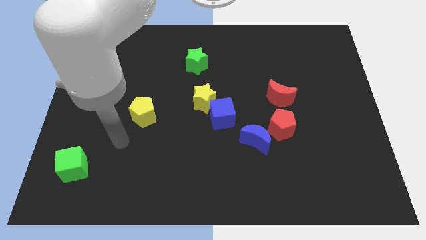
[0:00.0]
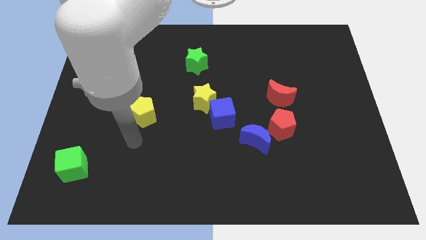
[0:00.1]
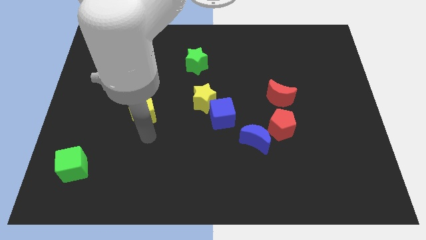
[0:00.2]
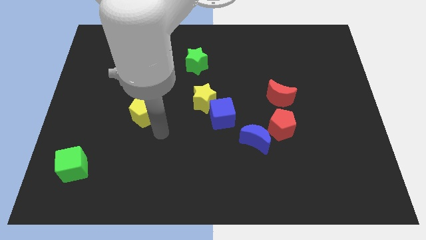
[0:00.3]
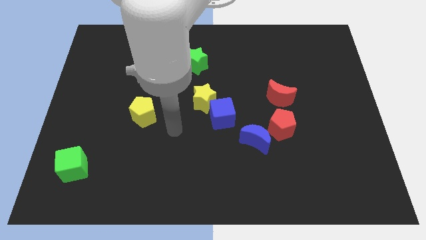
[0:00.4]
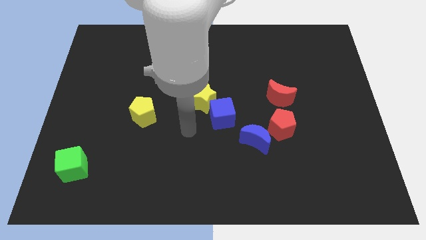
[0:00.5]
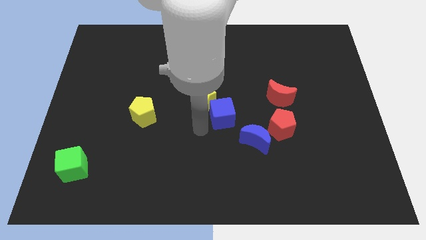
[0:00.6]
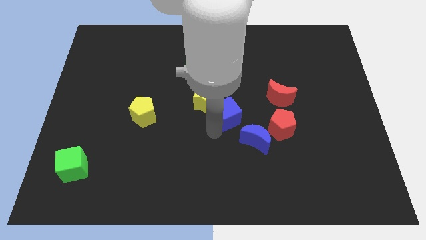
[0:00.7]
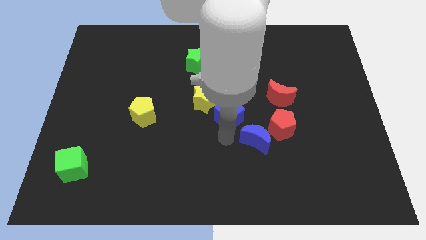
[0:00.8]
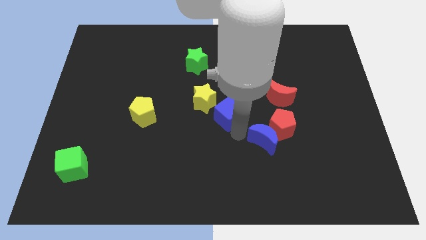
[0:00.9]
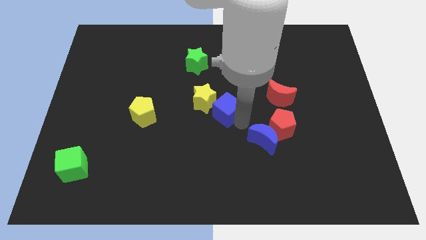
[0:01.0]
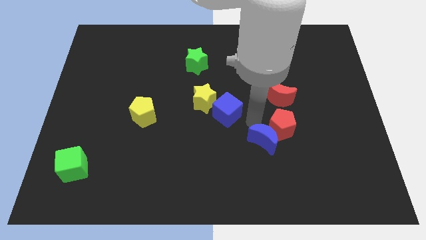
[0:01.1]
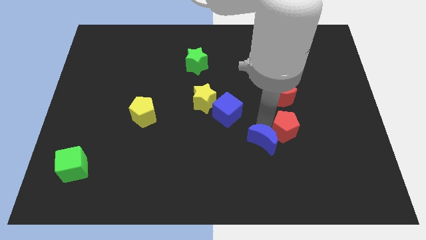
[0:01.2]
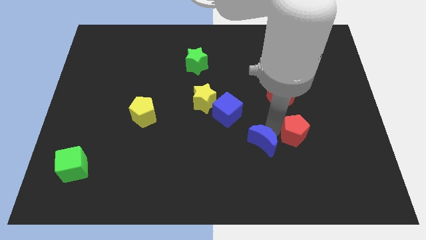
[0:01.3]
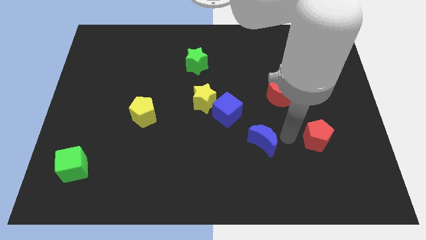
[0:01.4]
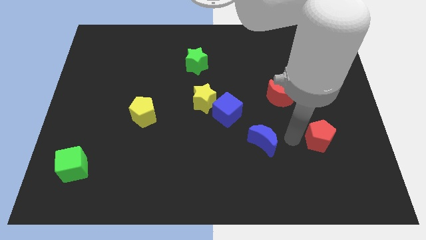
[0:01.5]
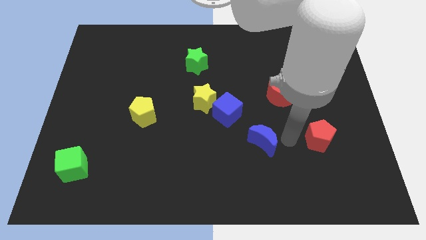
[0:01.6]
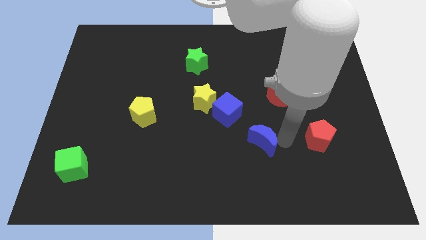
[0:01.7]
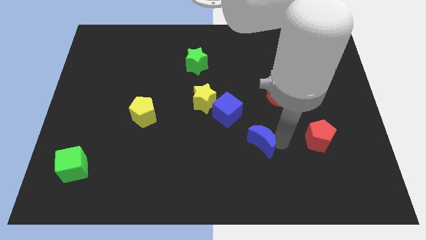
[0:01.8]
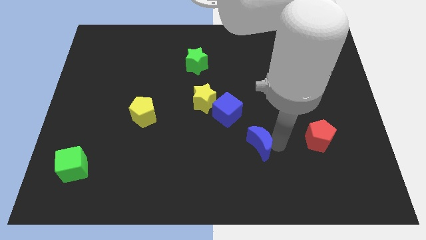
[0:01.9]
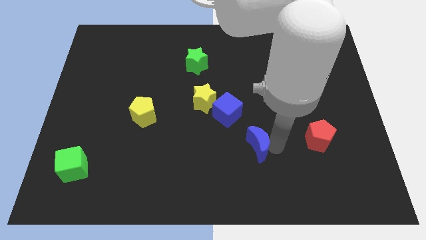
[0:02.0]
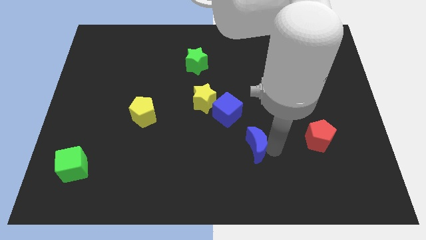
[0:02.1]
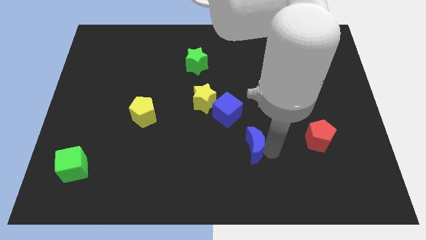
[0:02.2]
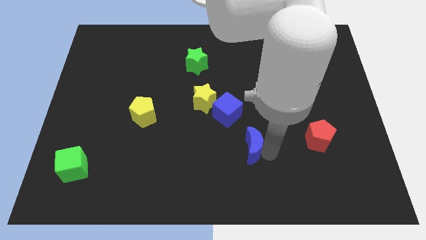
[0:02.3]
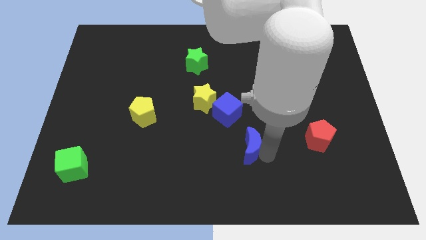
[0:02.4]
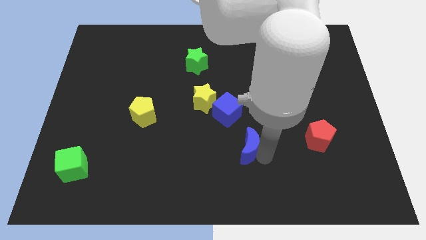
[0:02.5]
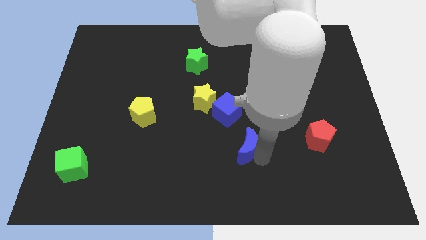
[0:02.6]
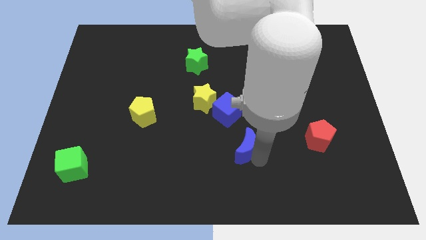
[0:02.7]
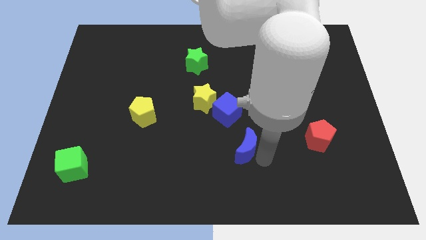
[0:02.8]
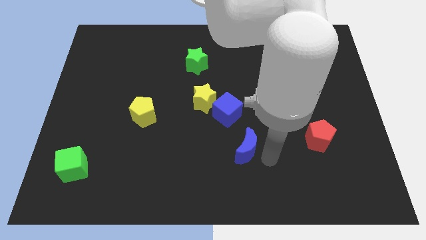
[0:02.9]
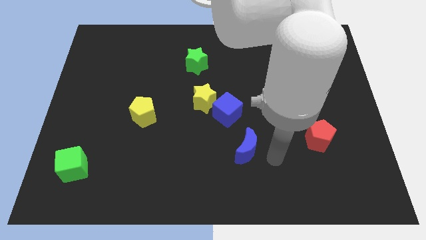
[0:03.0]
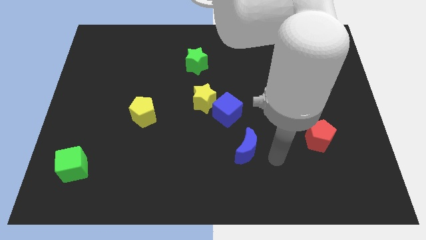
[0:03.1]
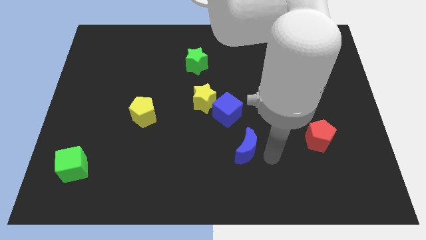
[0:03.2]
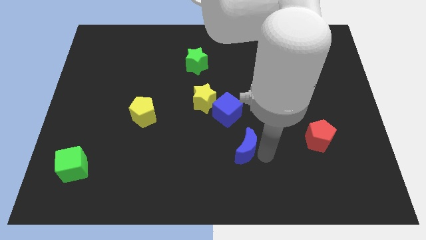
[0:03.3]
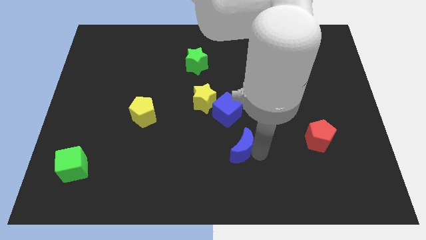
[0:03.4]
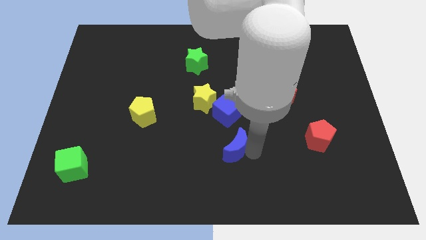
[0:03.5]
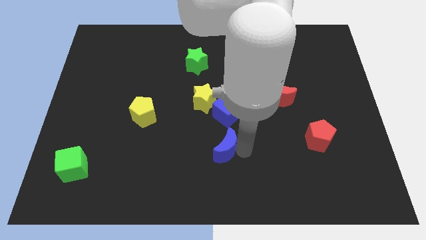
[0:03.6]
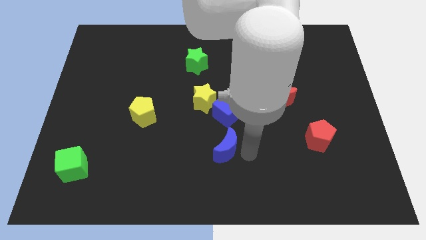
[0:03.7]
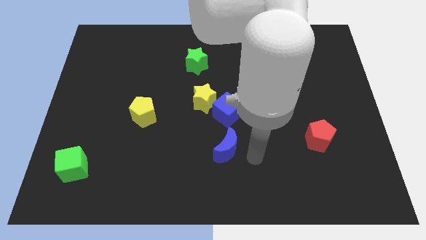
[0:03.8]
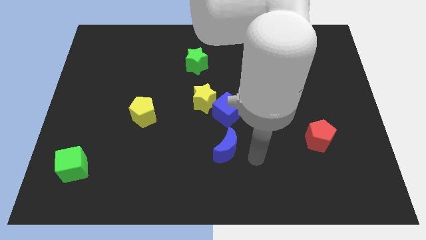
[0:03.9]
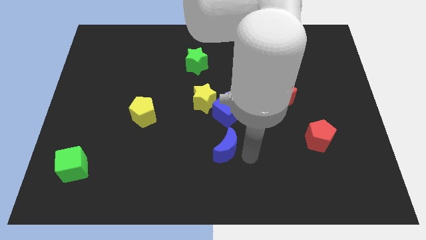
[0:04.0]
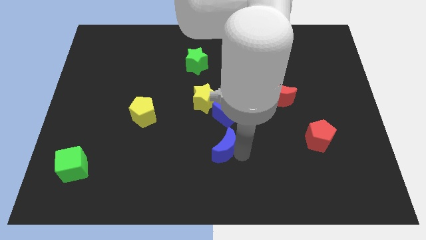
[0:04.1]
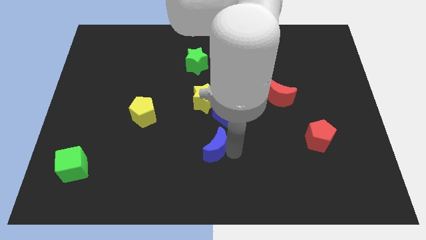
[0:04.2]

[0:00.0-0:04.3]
move the blue moon left a bit

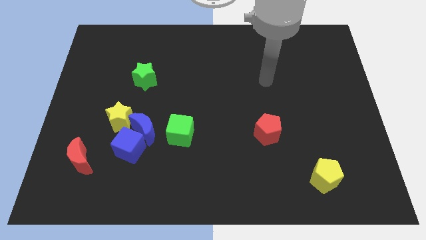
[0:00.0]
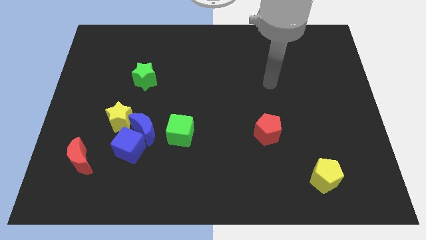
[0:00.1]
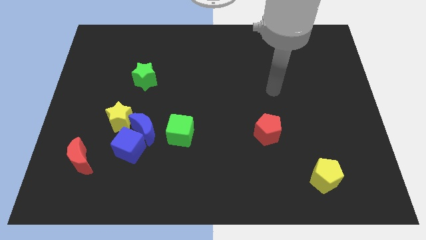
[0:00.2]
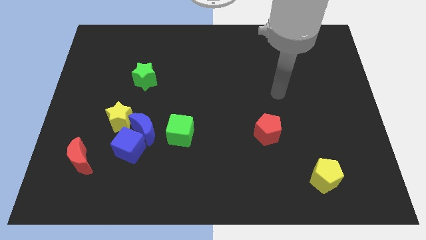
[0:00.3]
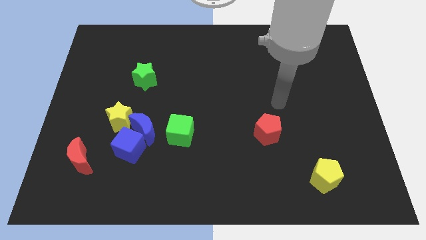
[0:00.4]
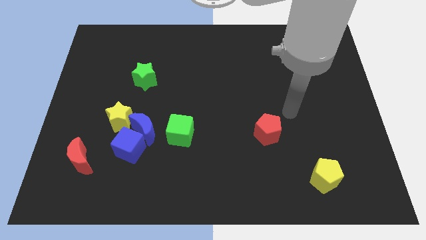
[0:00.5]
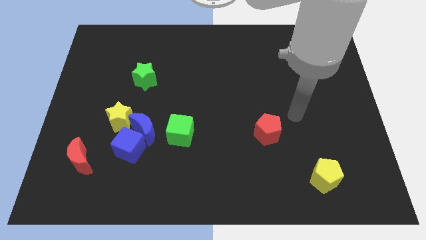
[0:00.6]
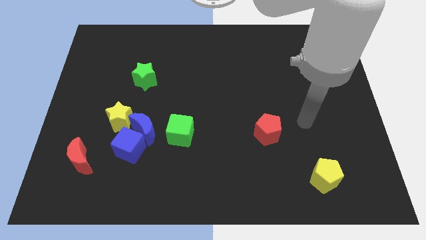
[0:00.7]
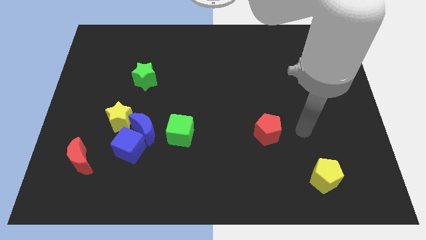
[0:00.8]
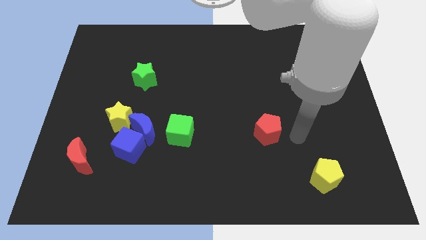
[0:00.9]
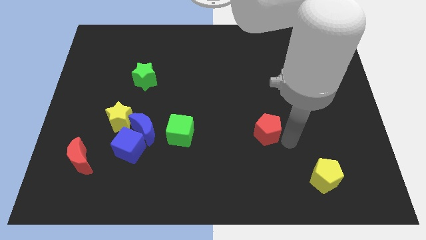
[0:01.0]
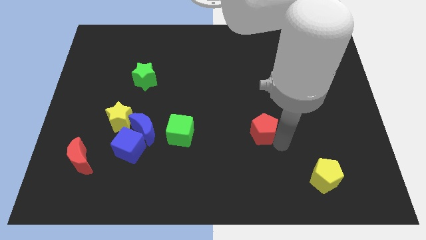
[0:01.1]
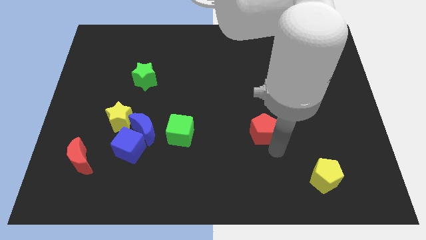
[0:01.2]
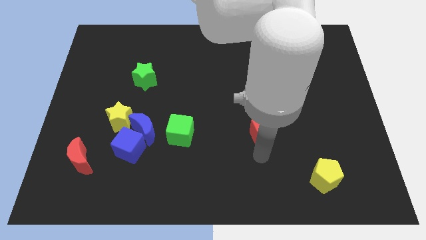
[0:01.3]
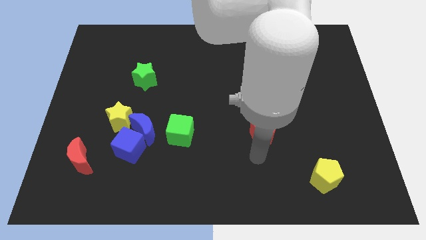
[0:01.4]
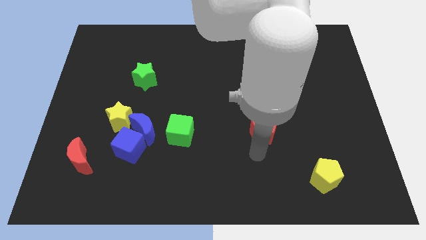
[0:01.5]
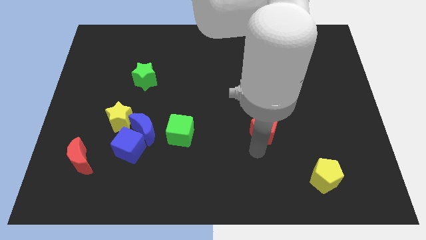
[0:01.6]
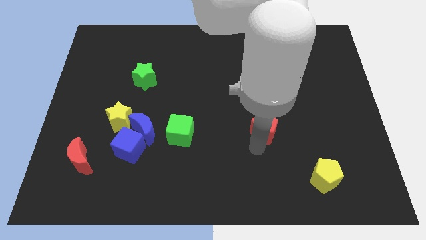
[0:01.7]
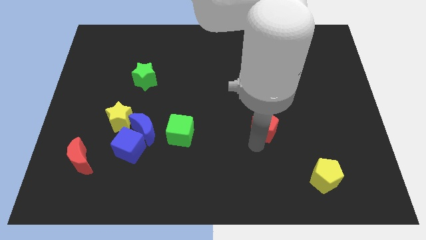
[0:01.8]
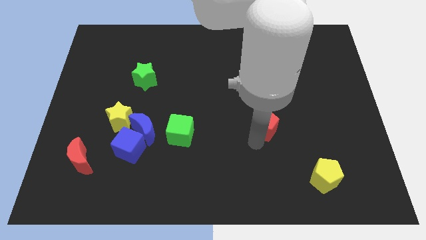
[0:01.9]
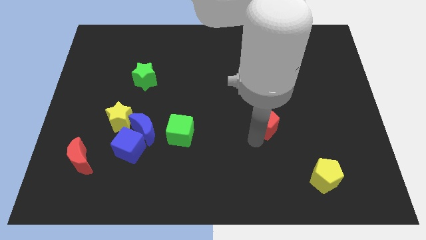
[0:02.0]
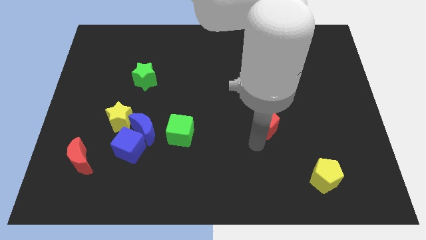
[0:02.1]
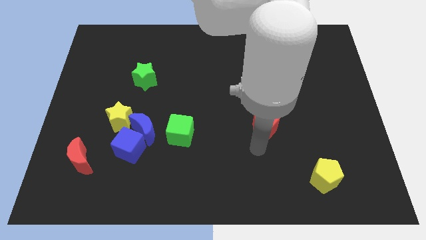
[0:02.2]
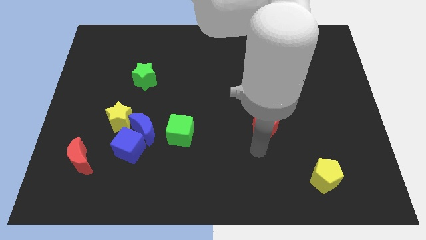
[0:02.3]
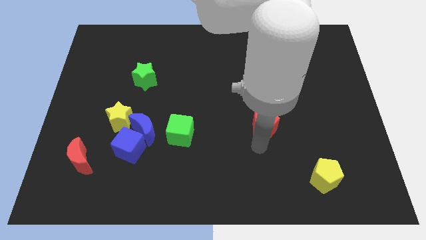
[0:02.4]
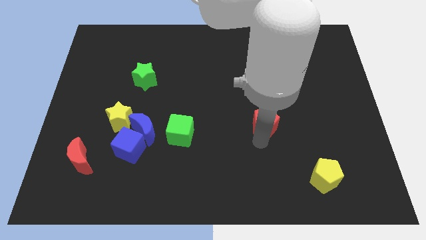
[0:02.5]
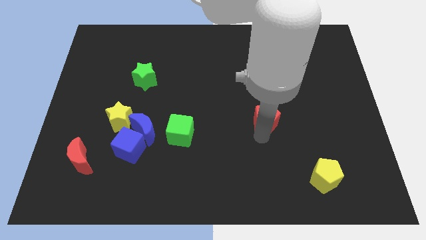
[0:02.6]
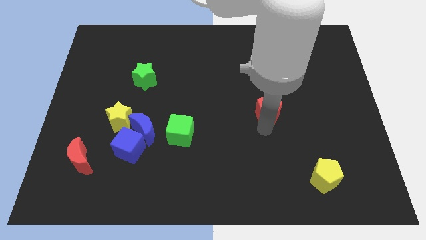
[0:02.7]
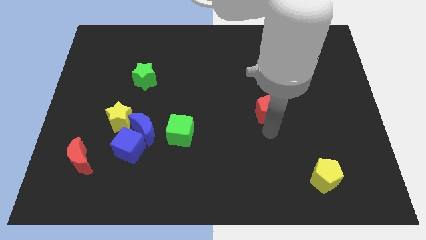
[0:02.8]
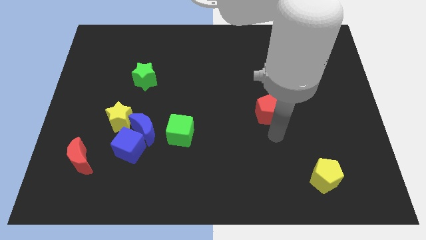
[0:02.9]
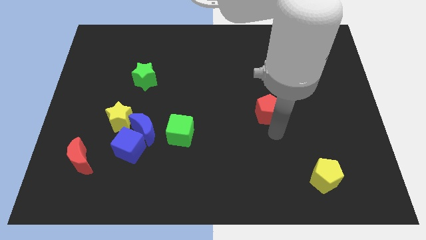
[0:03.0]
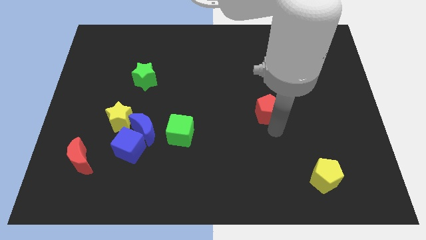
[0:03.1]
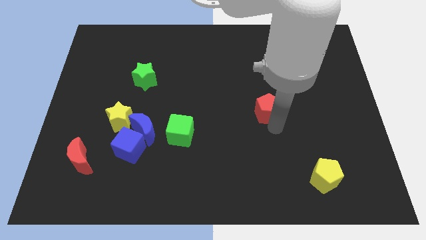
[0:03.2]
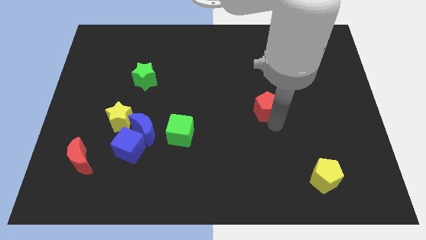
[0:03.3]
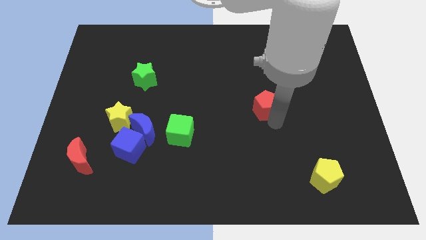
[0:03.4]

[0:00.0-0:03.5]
slide the red pentagon slightly up
